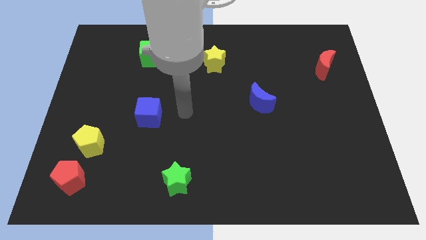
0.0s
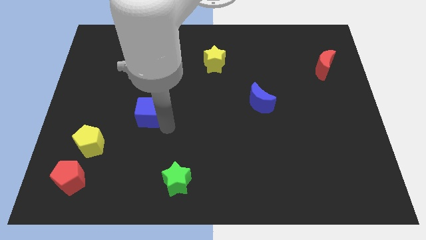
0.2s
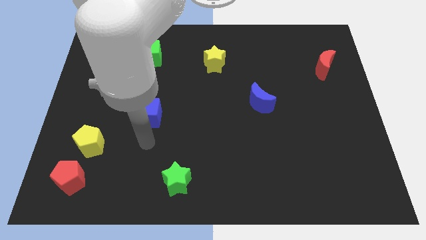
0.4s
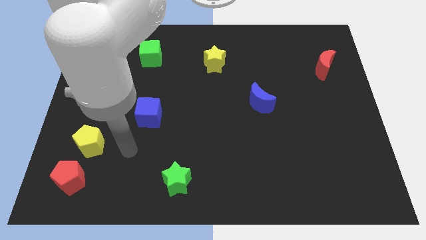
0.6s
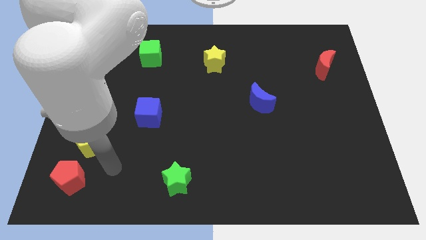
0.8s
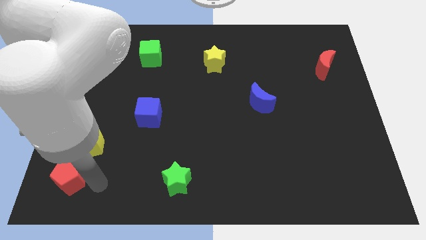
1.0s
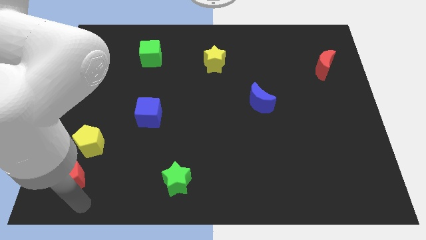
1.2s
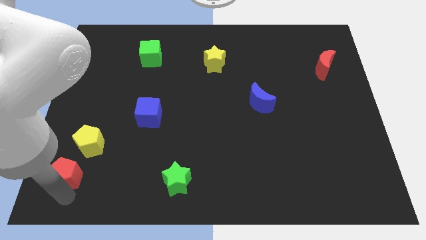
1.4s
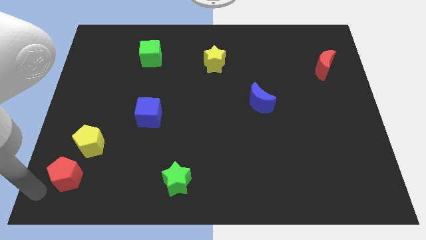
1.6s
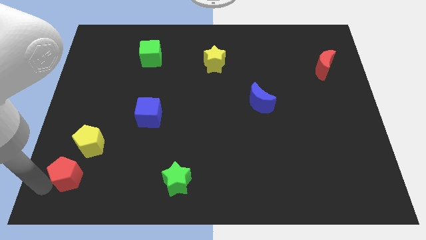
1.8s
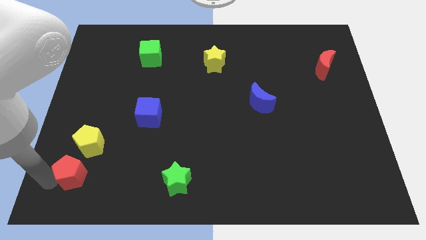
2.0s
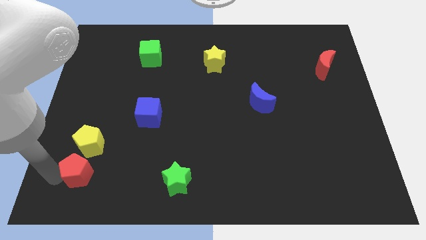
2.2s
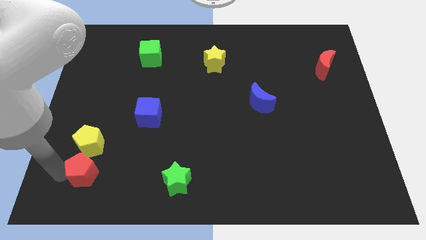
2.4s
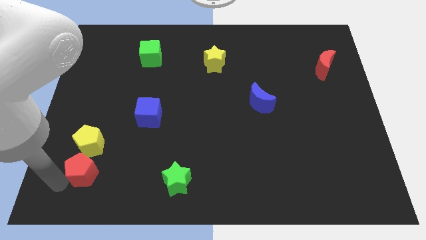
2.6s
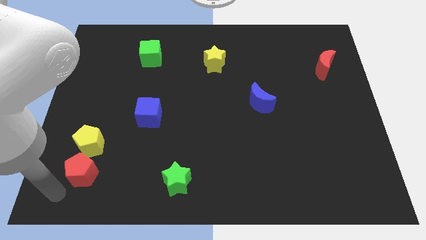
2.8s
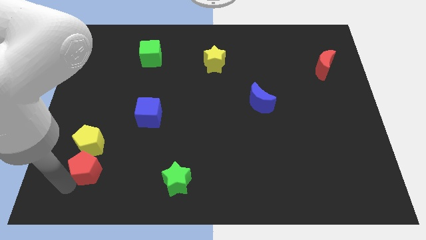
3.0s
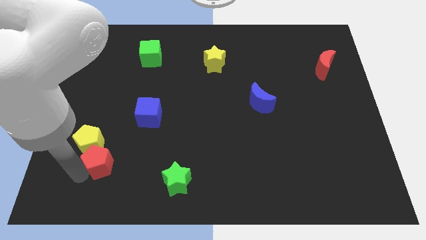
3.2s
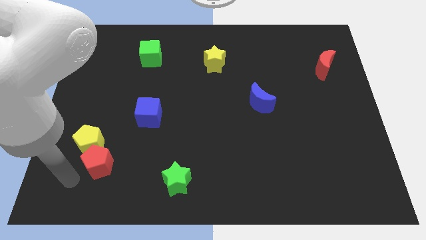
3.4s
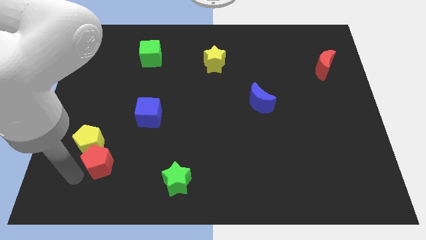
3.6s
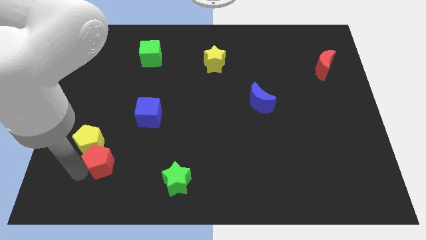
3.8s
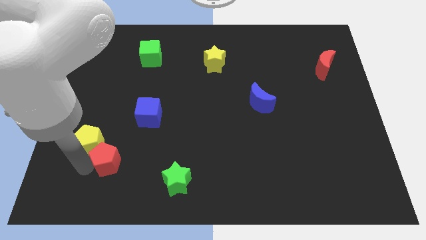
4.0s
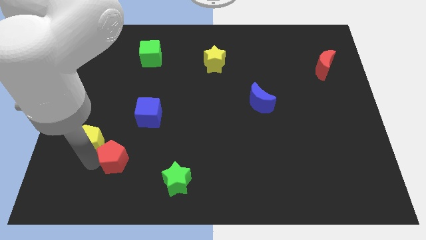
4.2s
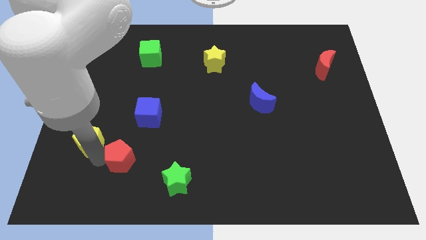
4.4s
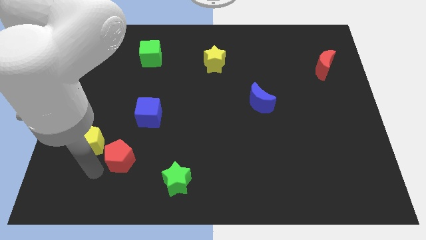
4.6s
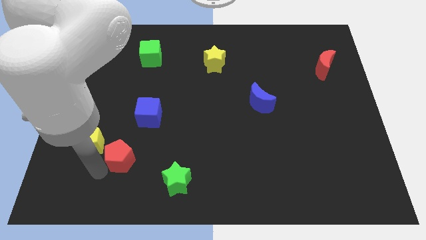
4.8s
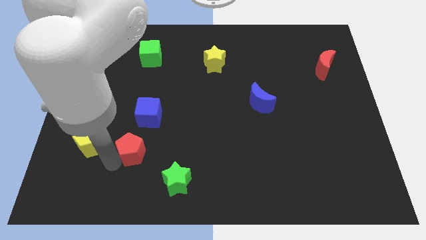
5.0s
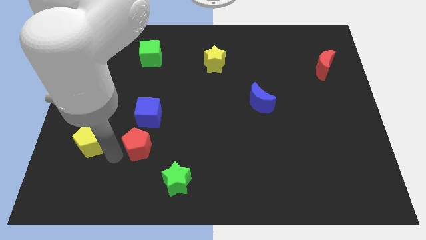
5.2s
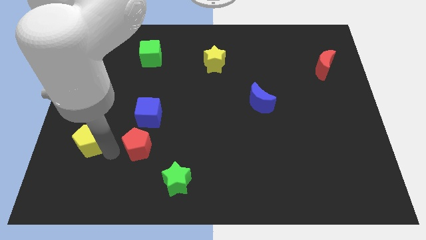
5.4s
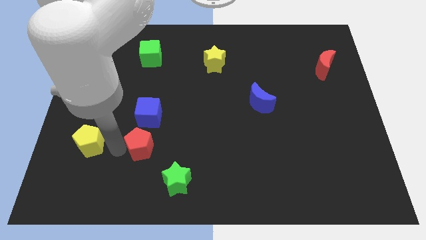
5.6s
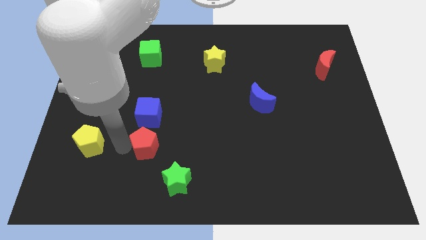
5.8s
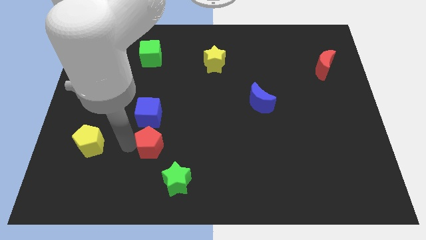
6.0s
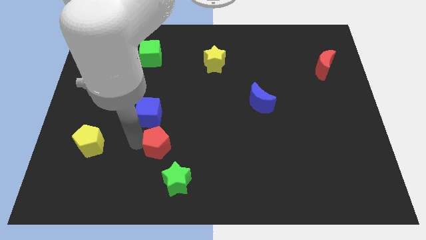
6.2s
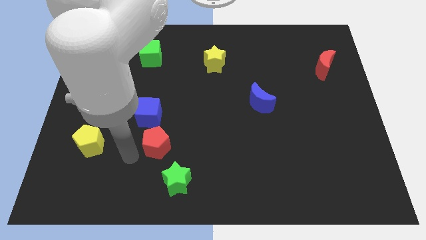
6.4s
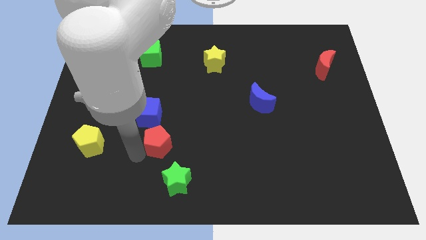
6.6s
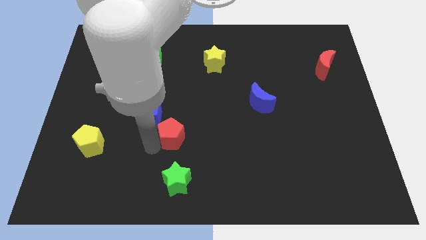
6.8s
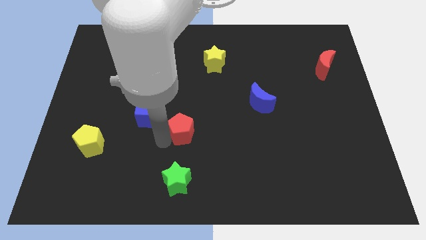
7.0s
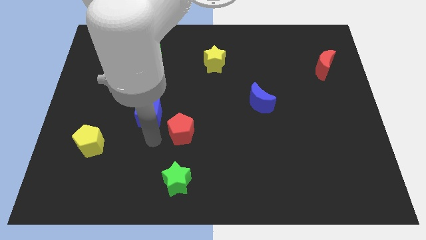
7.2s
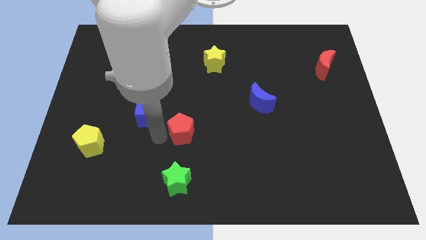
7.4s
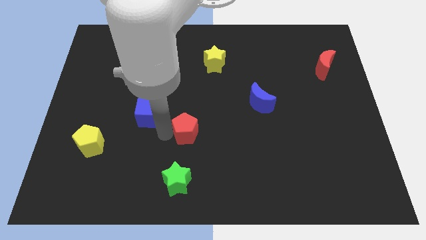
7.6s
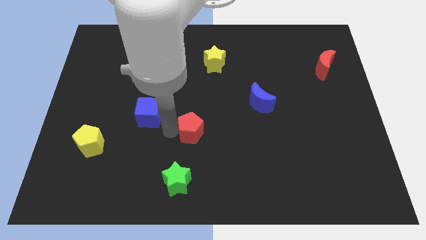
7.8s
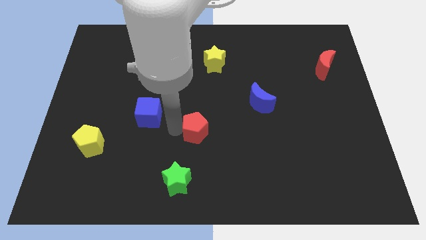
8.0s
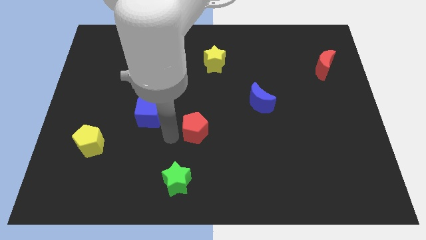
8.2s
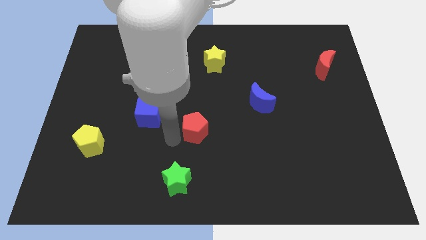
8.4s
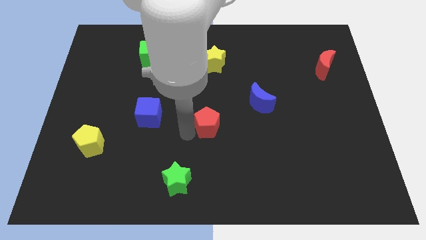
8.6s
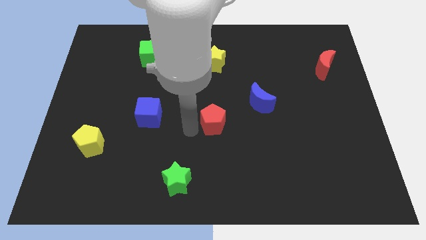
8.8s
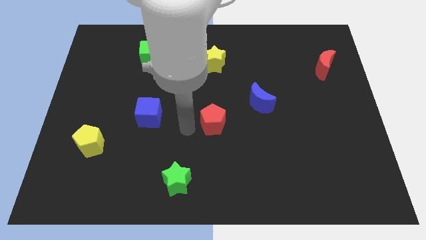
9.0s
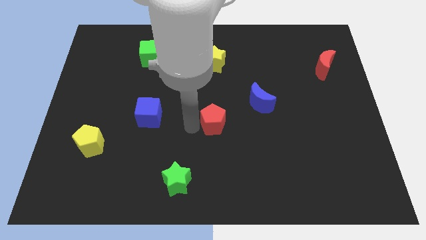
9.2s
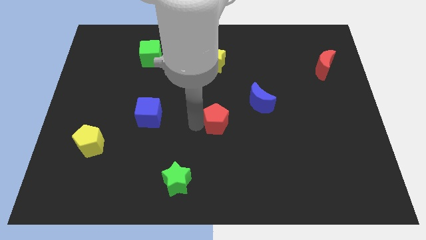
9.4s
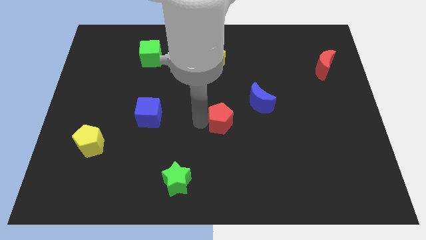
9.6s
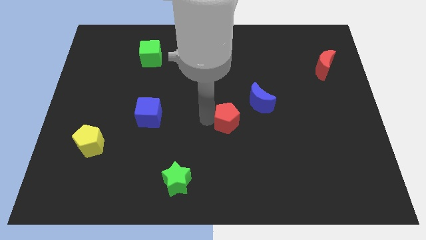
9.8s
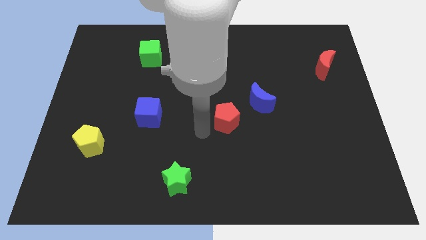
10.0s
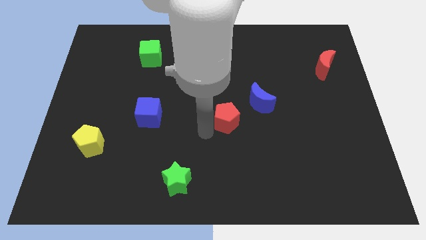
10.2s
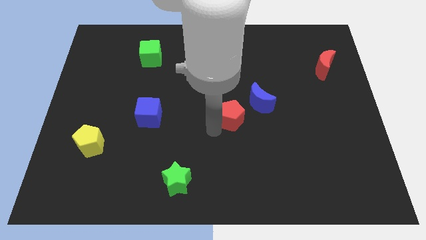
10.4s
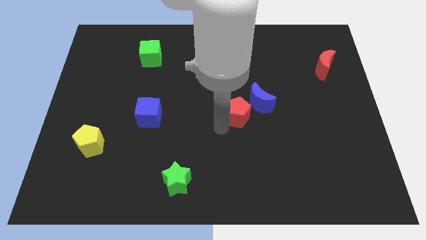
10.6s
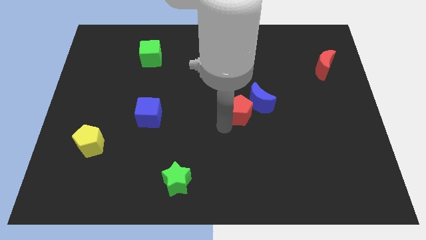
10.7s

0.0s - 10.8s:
push the red pentagon to the blue moon

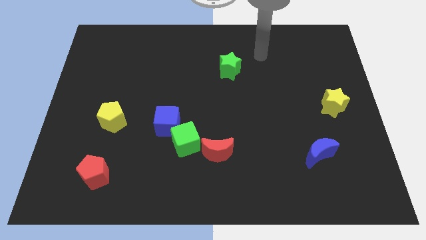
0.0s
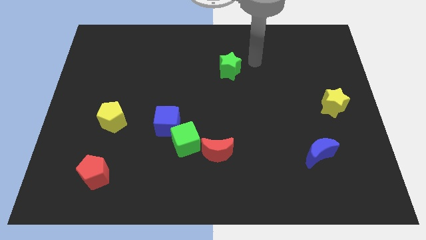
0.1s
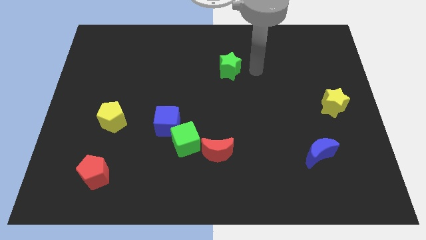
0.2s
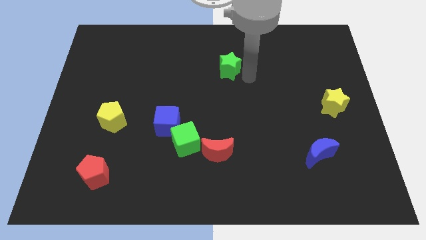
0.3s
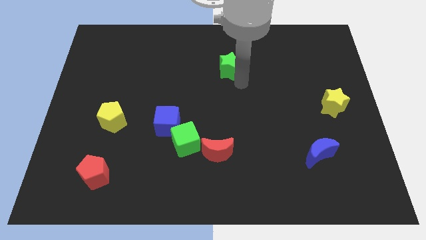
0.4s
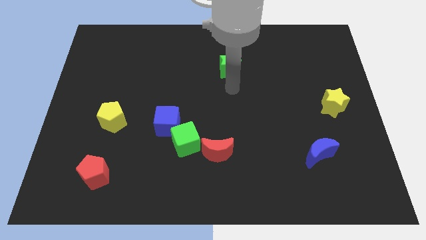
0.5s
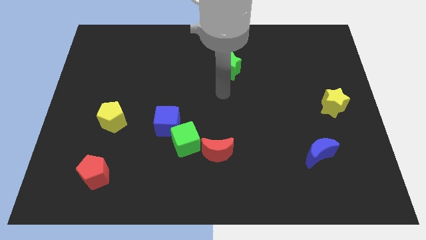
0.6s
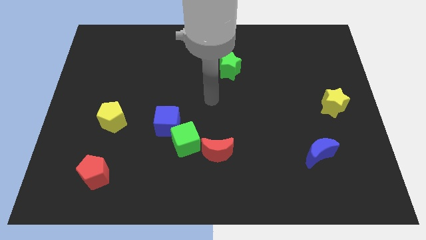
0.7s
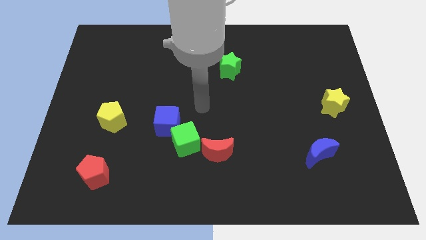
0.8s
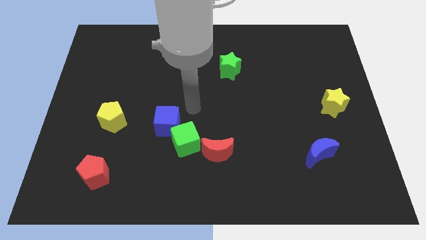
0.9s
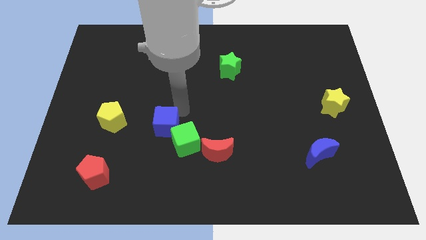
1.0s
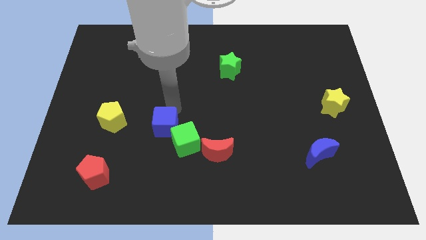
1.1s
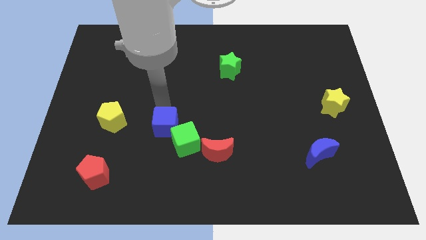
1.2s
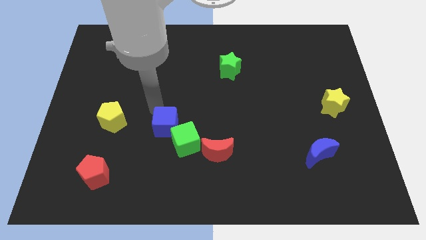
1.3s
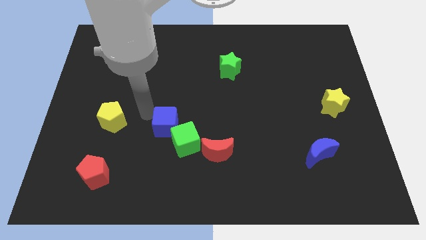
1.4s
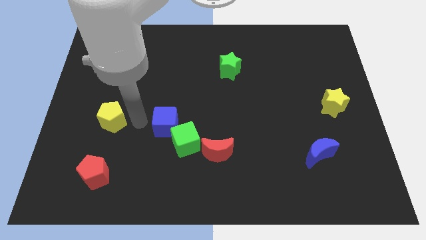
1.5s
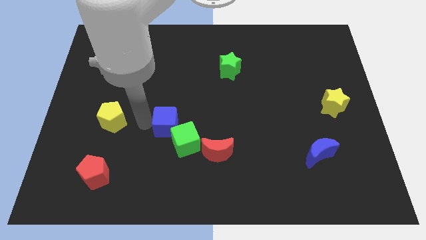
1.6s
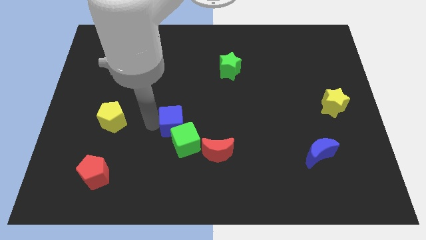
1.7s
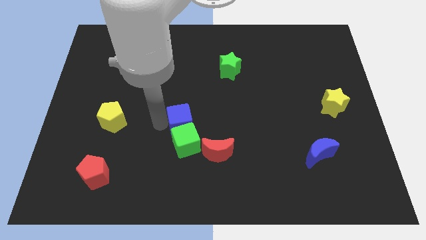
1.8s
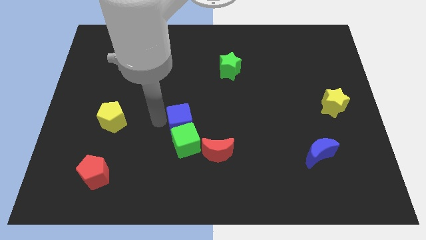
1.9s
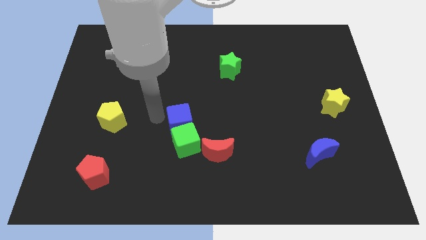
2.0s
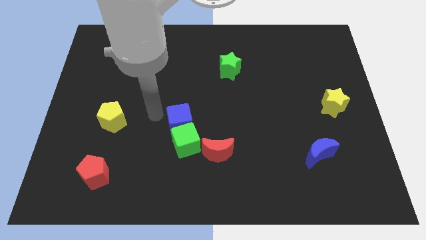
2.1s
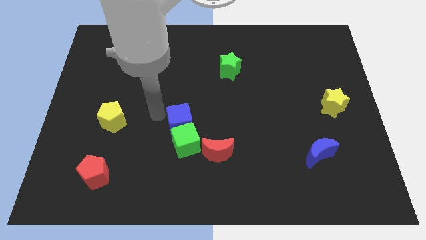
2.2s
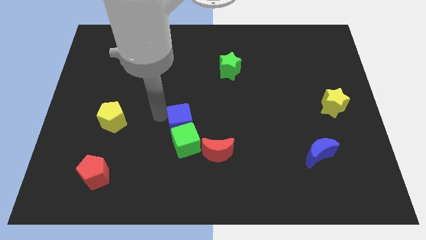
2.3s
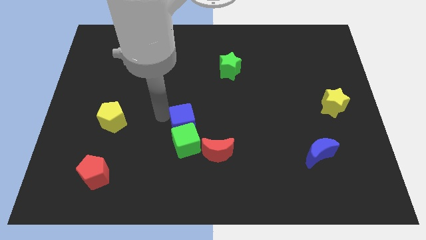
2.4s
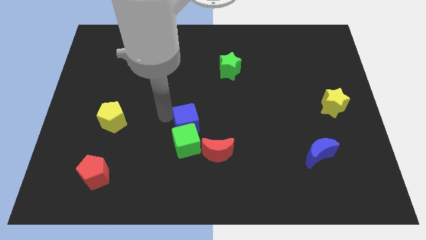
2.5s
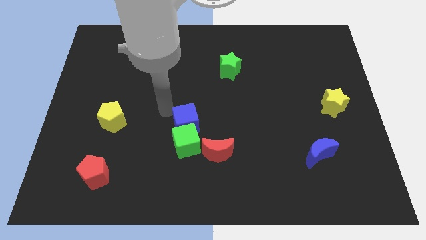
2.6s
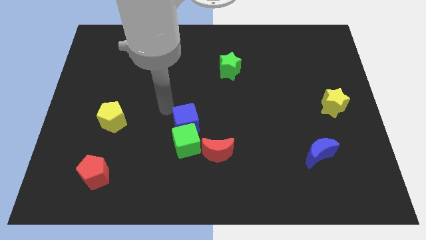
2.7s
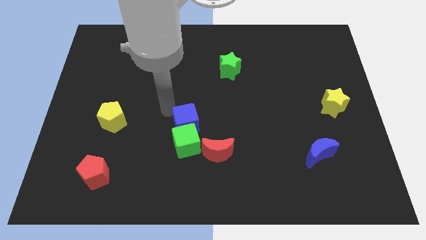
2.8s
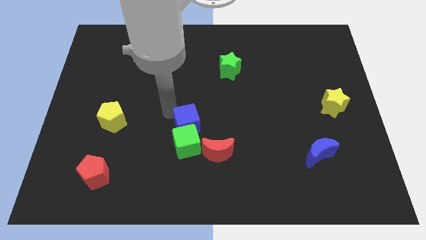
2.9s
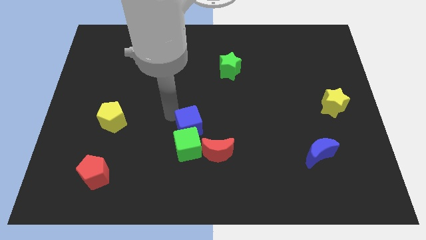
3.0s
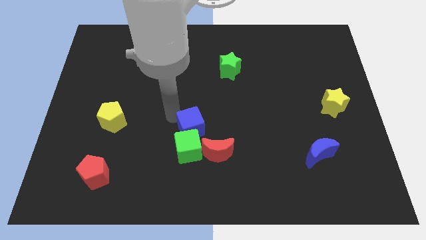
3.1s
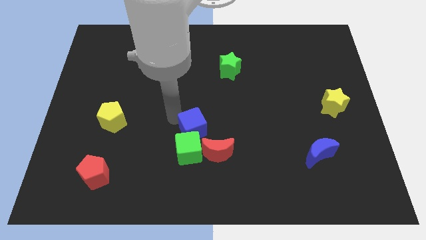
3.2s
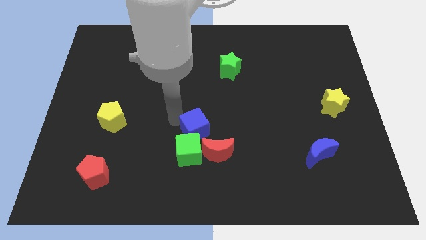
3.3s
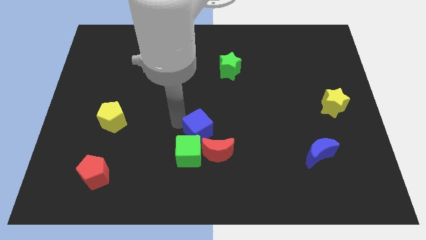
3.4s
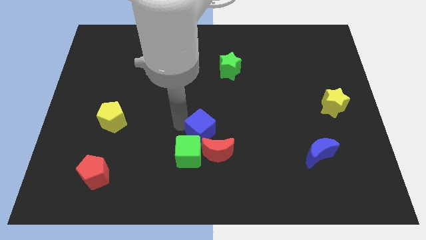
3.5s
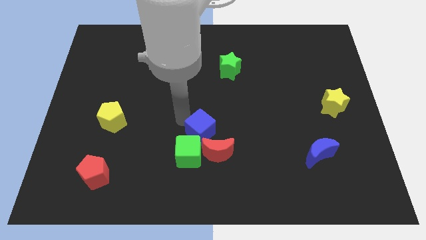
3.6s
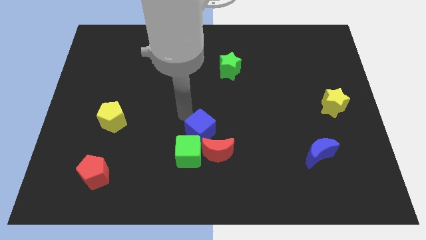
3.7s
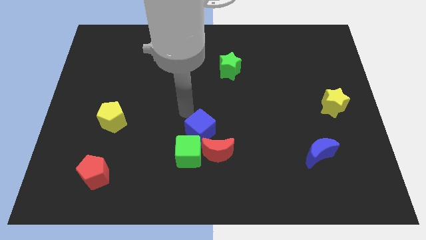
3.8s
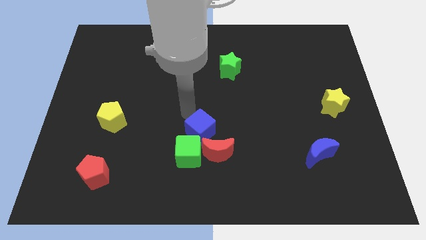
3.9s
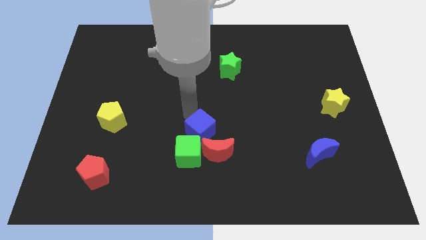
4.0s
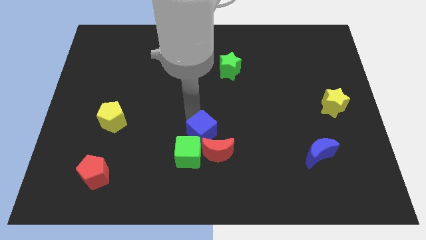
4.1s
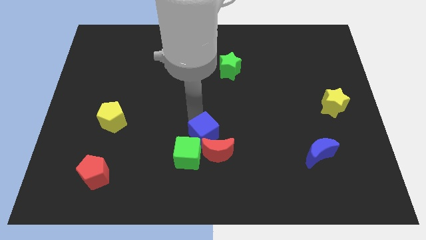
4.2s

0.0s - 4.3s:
push the blue cube next to the red moon
